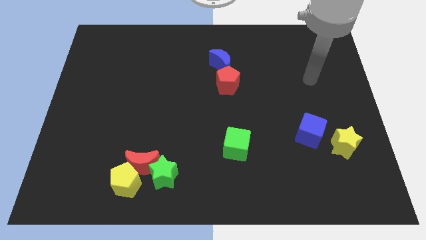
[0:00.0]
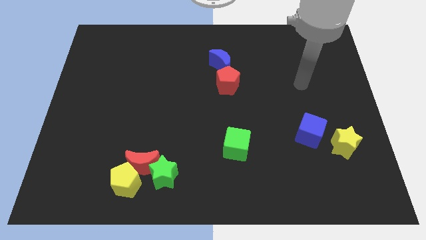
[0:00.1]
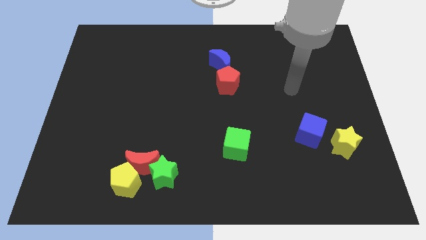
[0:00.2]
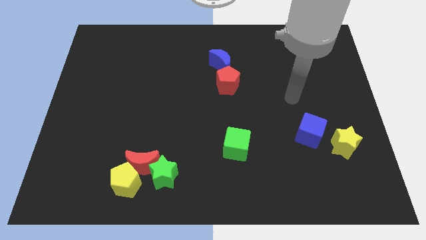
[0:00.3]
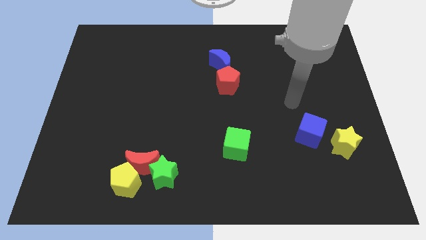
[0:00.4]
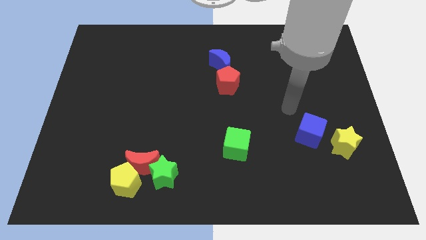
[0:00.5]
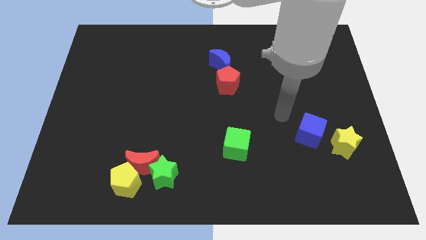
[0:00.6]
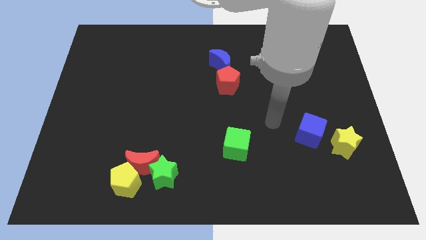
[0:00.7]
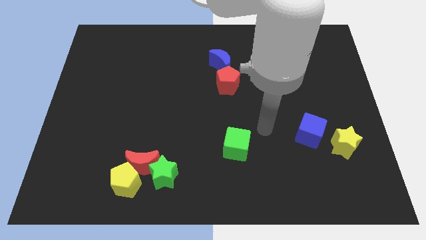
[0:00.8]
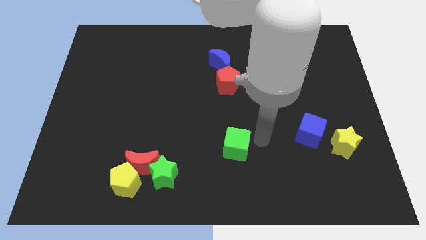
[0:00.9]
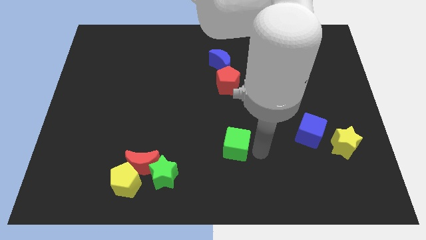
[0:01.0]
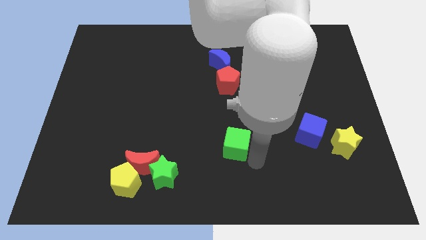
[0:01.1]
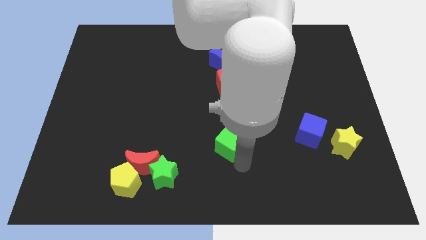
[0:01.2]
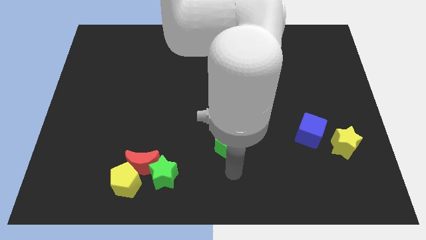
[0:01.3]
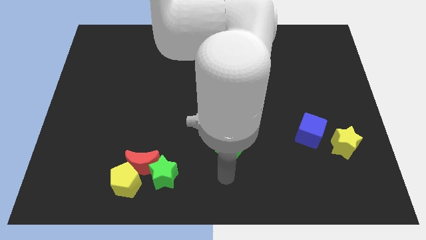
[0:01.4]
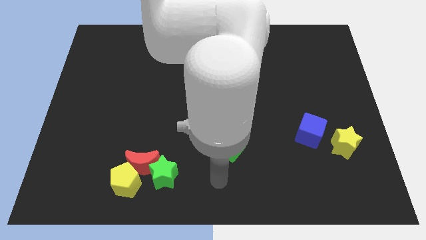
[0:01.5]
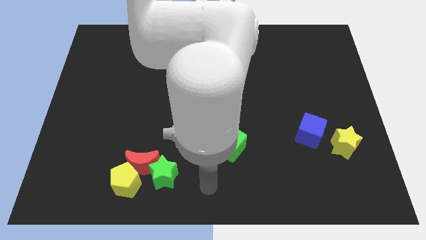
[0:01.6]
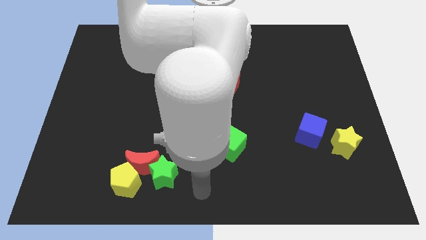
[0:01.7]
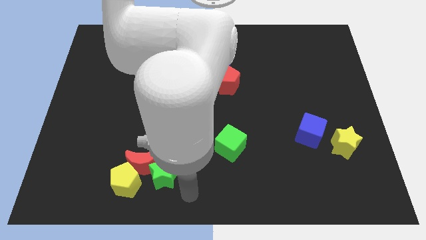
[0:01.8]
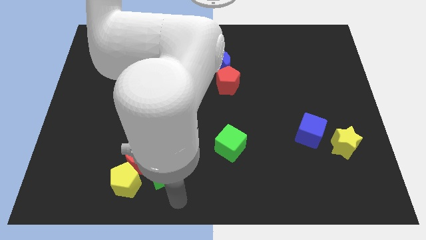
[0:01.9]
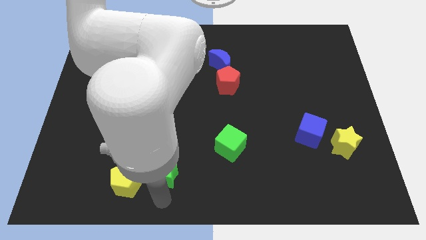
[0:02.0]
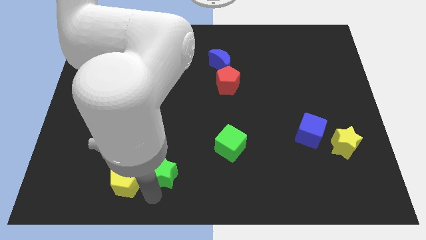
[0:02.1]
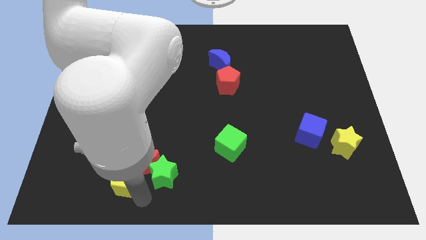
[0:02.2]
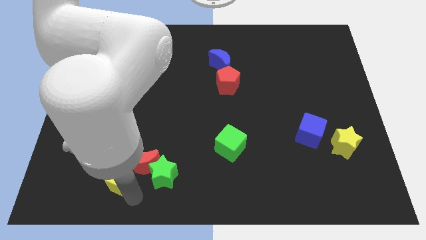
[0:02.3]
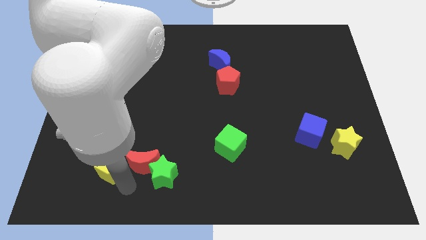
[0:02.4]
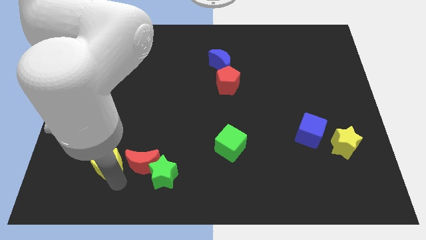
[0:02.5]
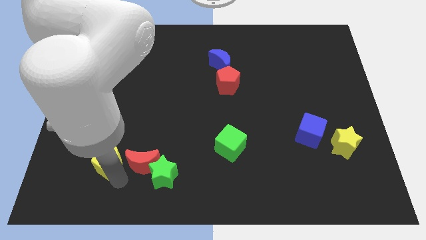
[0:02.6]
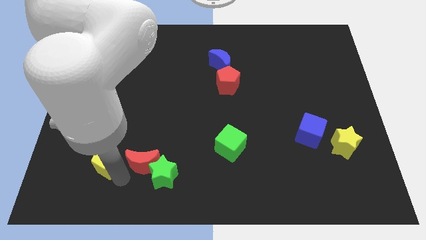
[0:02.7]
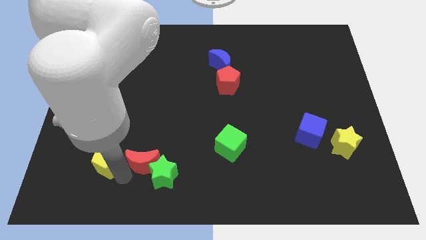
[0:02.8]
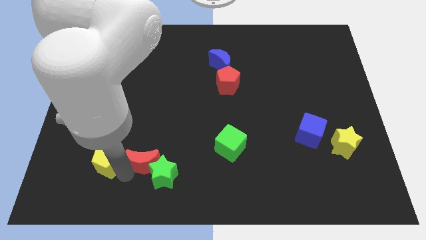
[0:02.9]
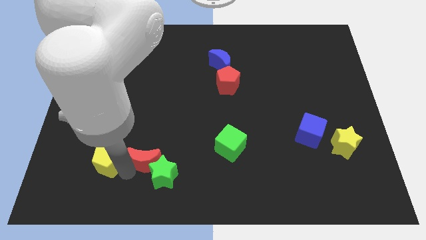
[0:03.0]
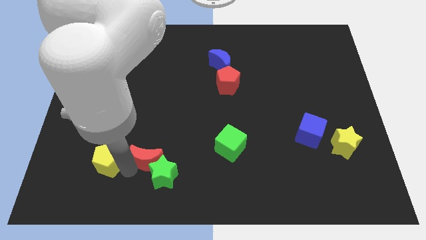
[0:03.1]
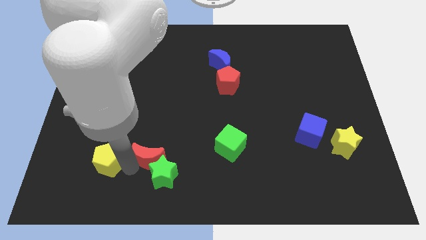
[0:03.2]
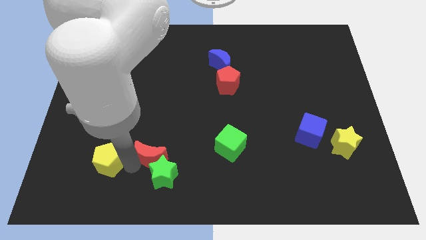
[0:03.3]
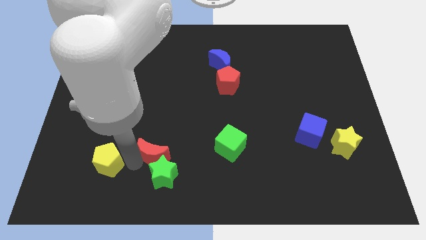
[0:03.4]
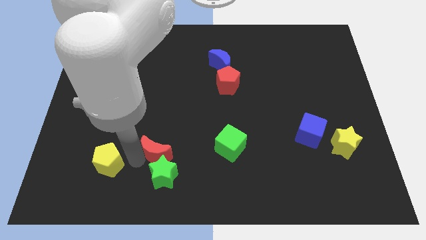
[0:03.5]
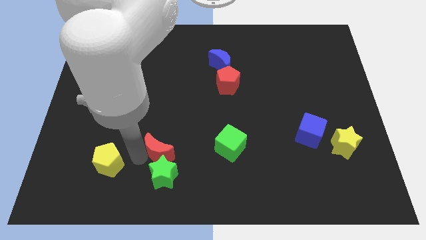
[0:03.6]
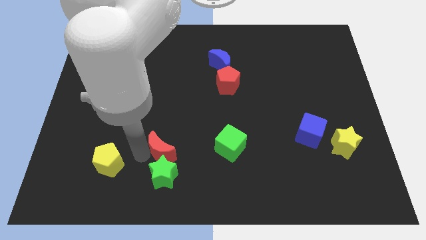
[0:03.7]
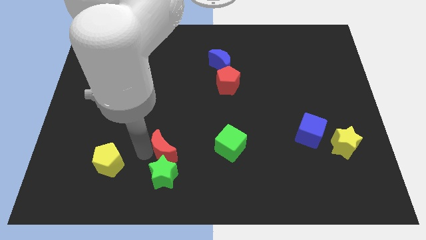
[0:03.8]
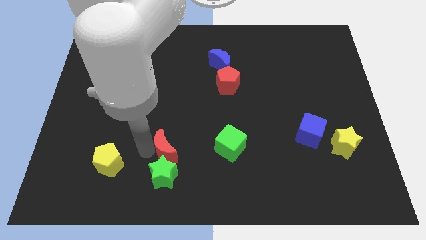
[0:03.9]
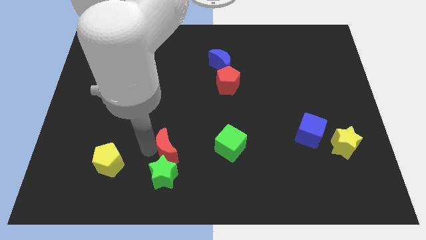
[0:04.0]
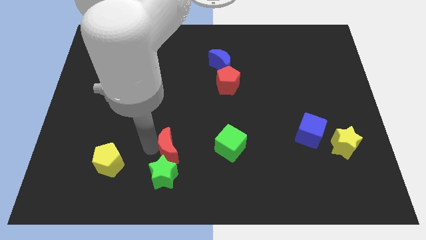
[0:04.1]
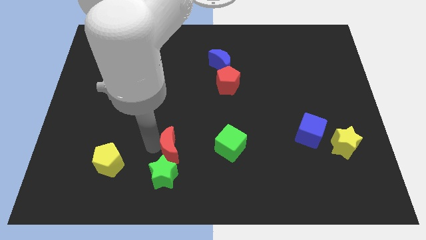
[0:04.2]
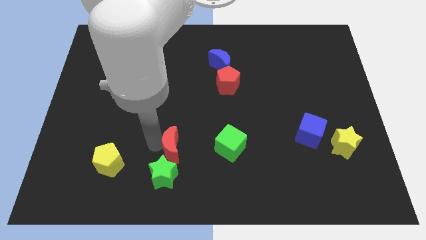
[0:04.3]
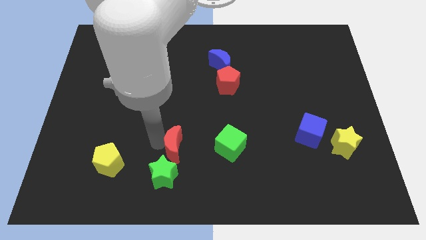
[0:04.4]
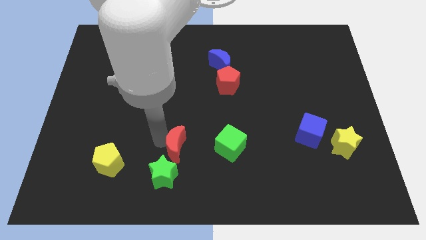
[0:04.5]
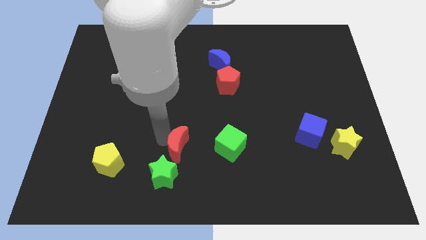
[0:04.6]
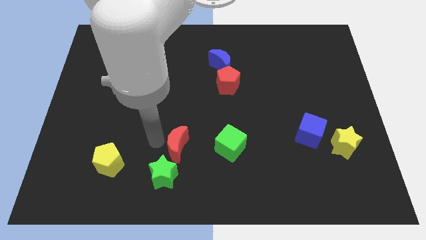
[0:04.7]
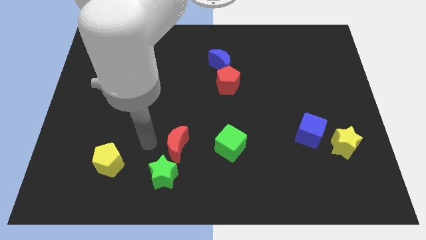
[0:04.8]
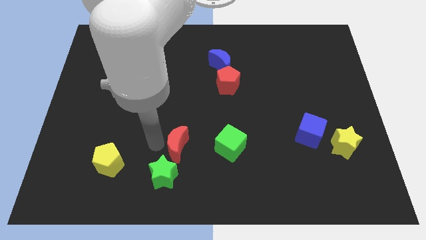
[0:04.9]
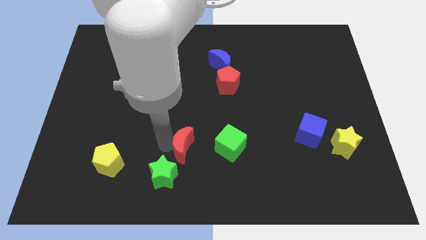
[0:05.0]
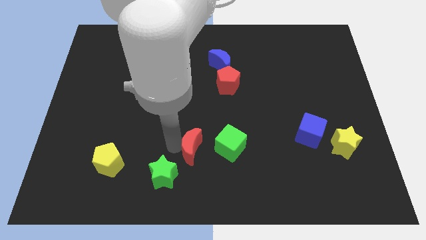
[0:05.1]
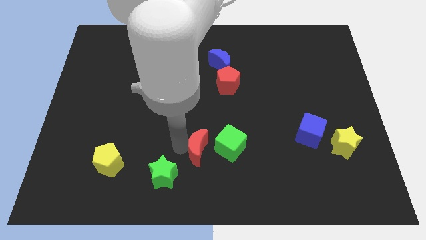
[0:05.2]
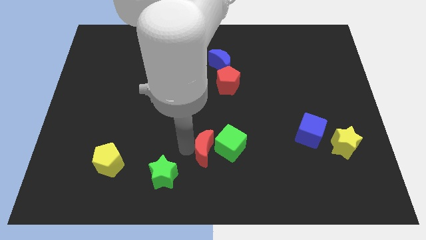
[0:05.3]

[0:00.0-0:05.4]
move the red moon towards the green cube
